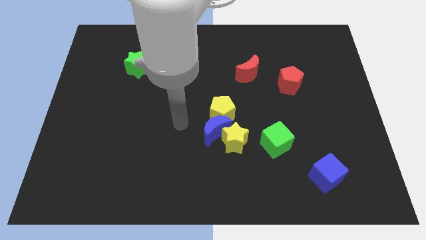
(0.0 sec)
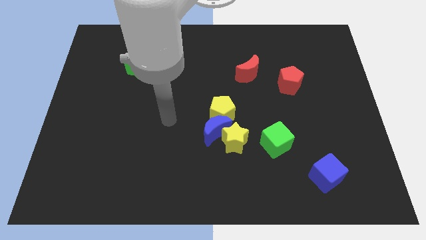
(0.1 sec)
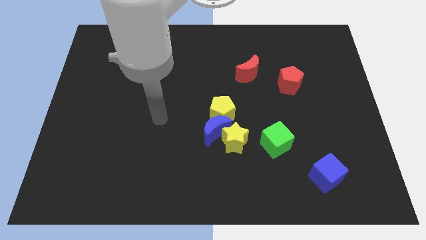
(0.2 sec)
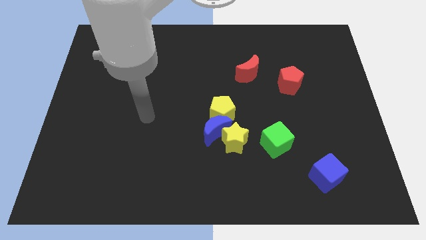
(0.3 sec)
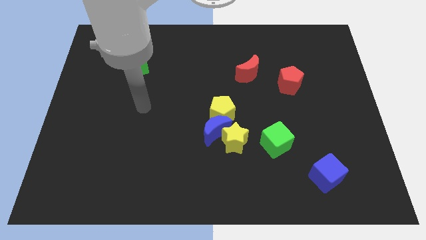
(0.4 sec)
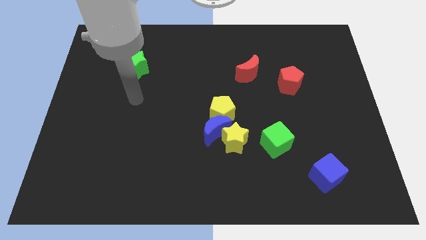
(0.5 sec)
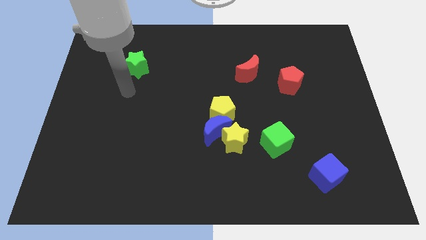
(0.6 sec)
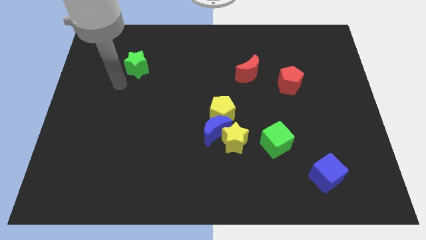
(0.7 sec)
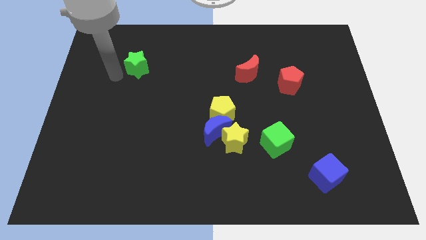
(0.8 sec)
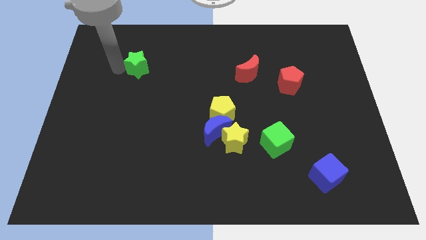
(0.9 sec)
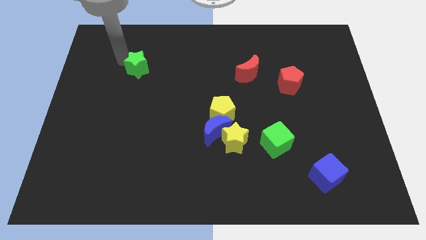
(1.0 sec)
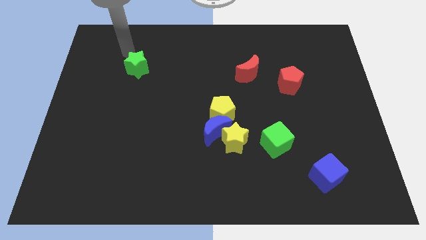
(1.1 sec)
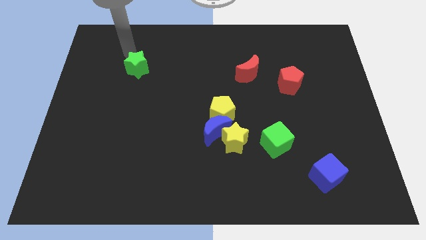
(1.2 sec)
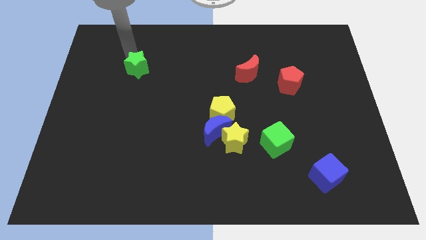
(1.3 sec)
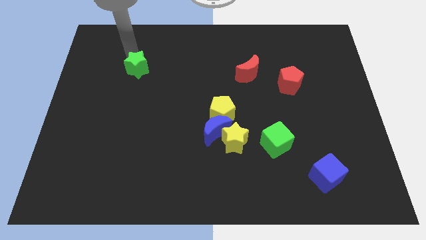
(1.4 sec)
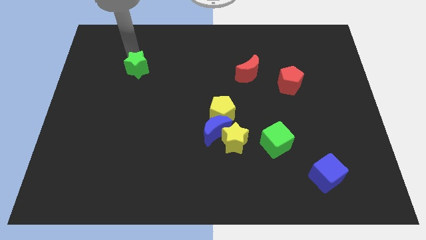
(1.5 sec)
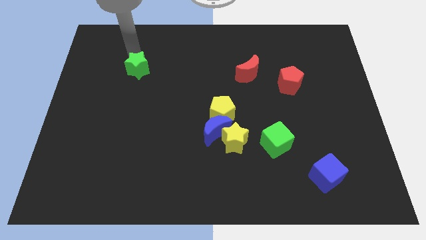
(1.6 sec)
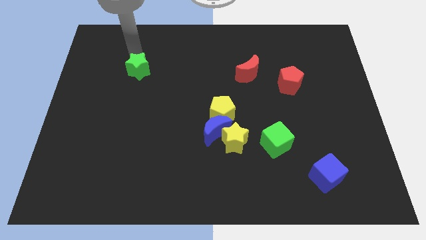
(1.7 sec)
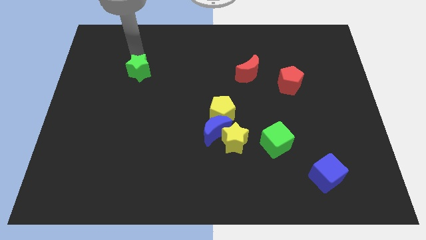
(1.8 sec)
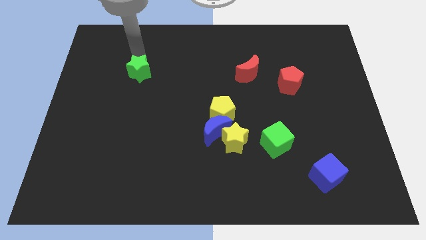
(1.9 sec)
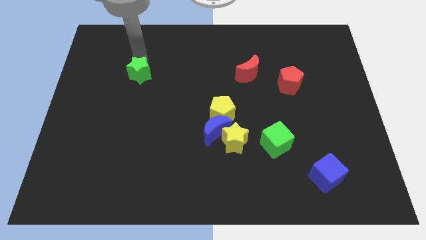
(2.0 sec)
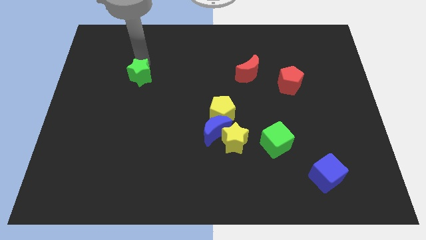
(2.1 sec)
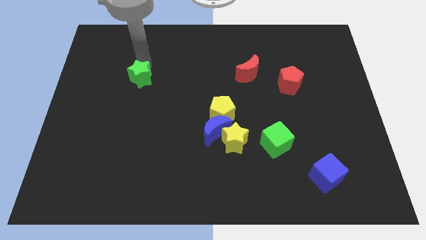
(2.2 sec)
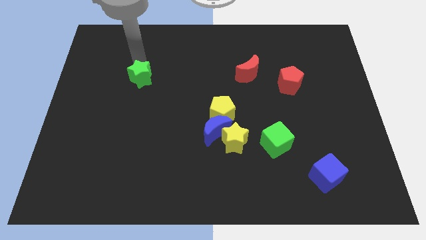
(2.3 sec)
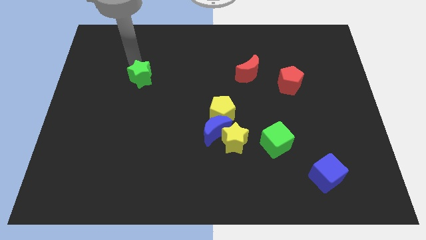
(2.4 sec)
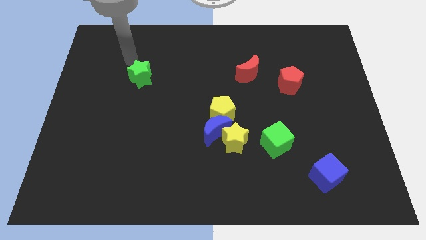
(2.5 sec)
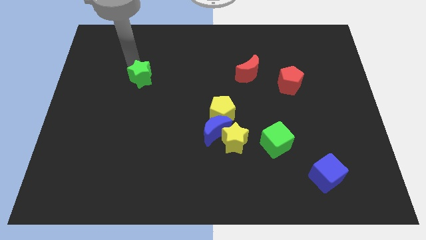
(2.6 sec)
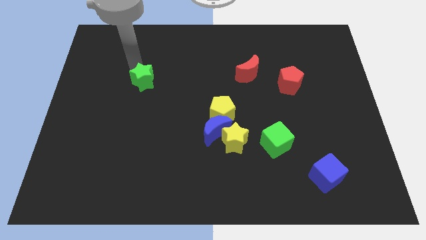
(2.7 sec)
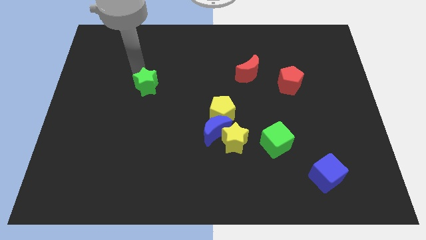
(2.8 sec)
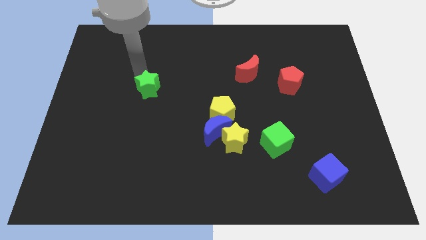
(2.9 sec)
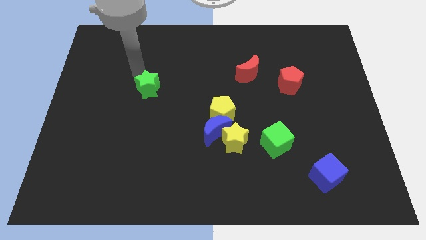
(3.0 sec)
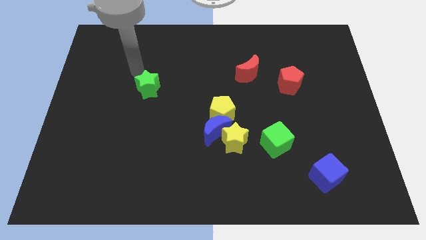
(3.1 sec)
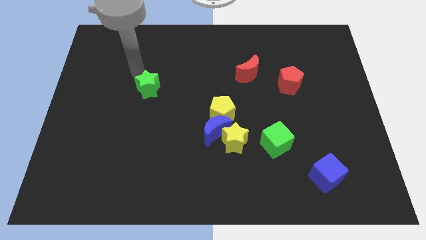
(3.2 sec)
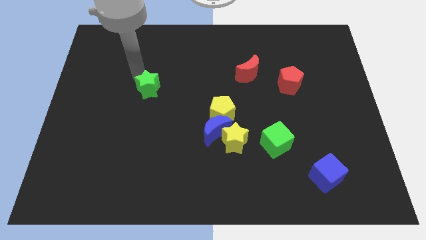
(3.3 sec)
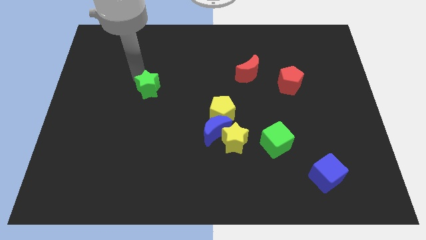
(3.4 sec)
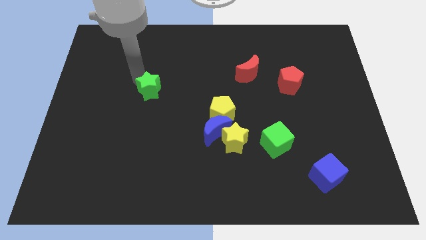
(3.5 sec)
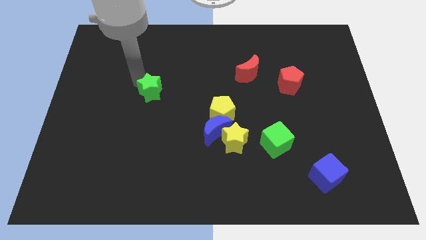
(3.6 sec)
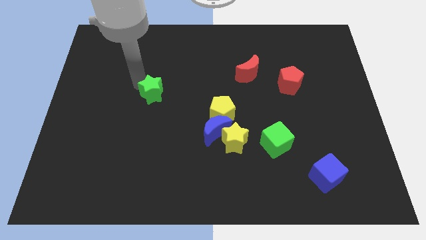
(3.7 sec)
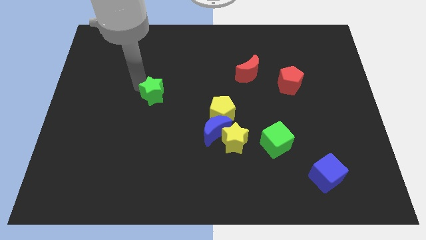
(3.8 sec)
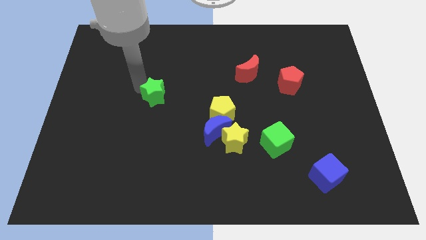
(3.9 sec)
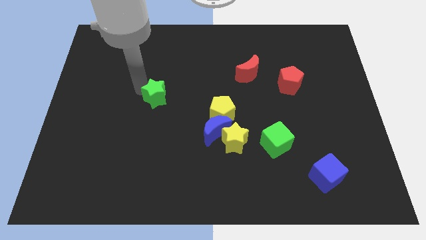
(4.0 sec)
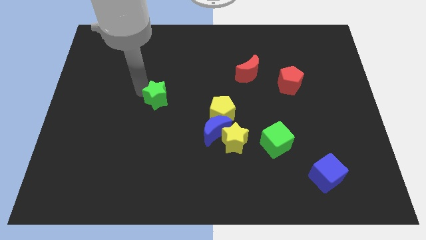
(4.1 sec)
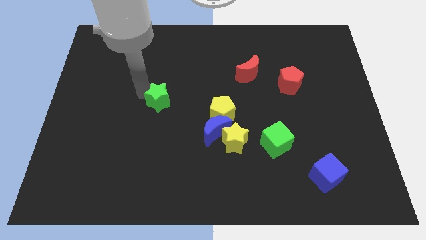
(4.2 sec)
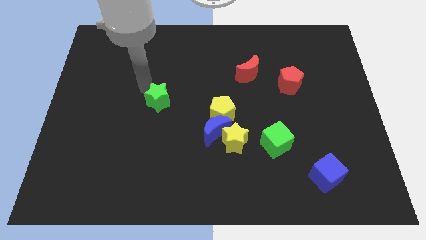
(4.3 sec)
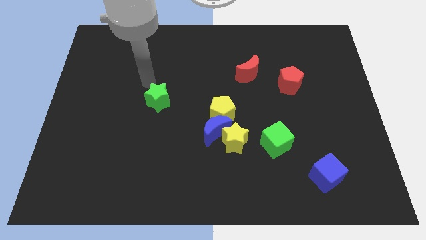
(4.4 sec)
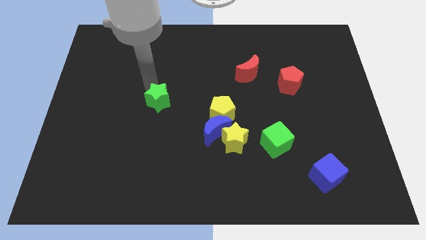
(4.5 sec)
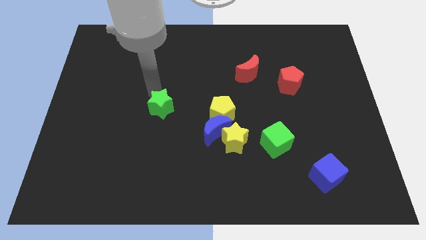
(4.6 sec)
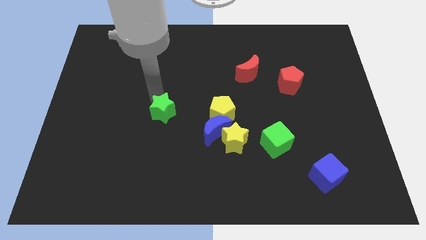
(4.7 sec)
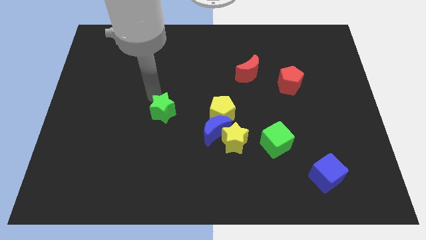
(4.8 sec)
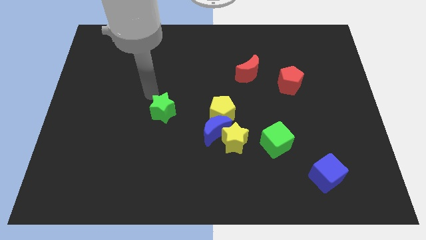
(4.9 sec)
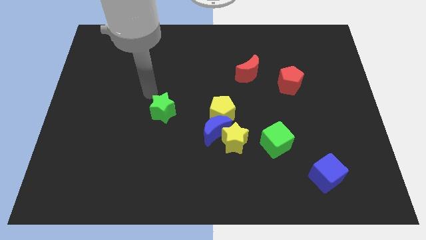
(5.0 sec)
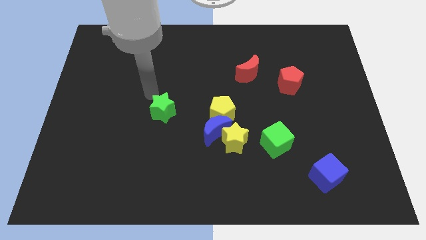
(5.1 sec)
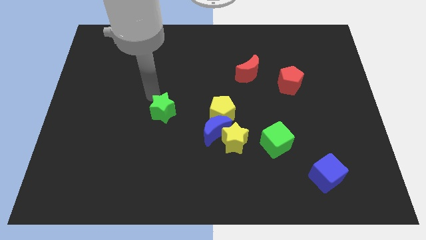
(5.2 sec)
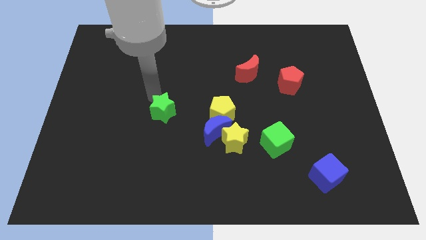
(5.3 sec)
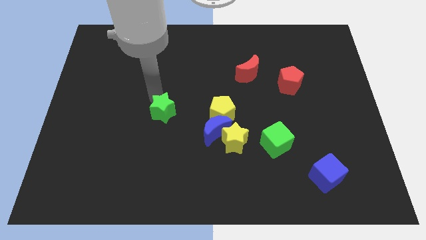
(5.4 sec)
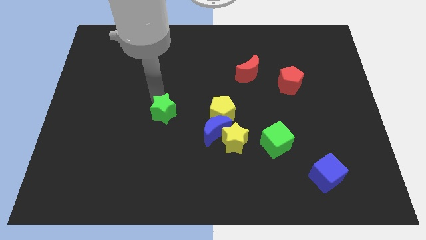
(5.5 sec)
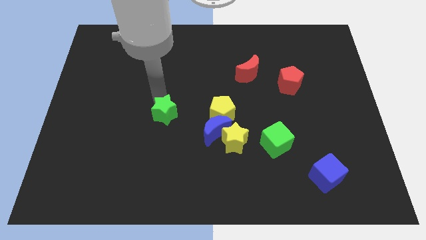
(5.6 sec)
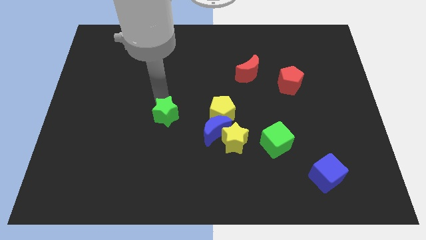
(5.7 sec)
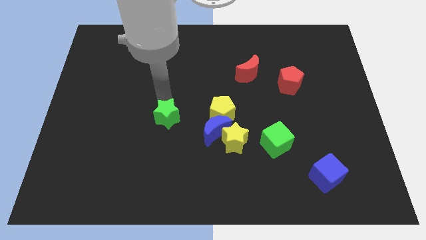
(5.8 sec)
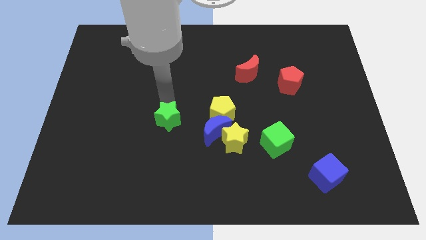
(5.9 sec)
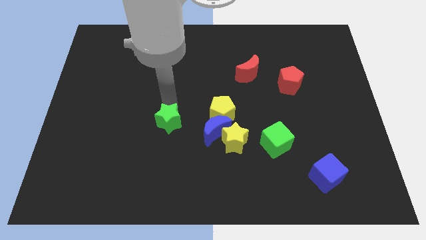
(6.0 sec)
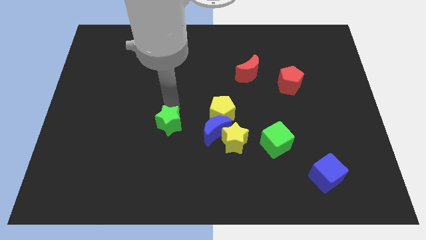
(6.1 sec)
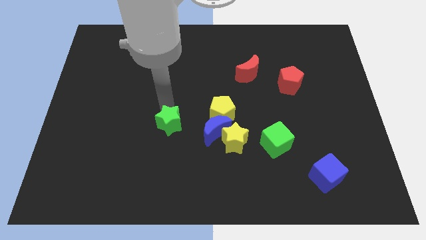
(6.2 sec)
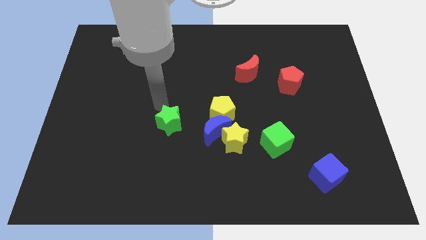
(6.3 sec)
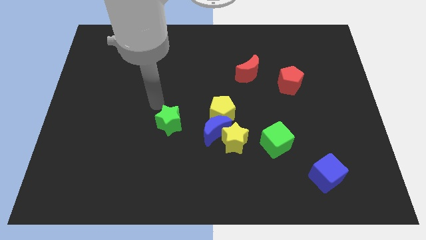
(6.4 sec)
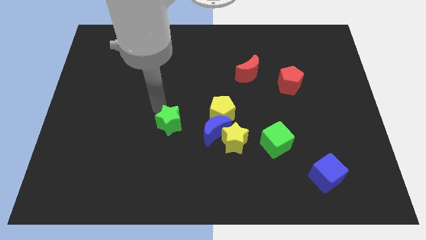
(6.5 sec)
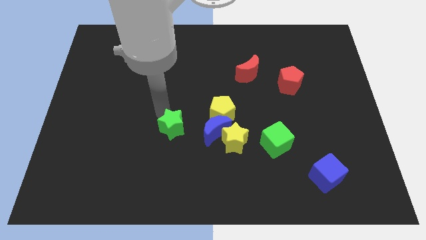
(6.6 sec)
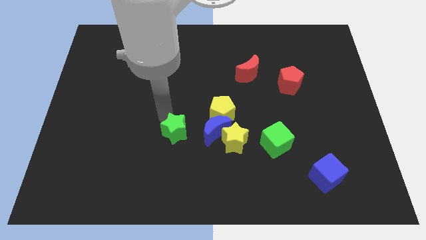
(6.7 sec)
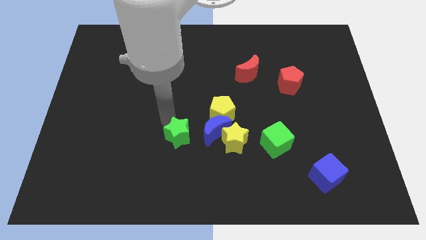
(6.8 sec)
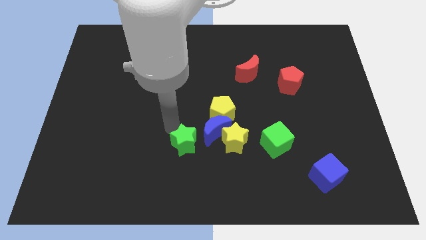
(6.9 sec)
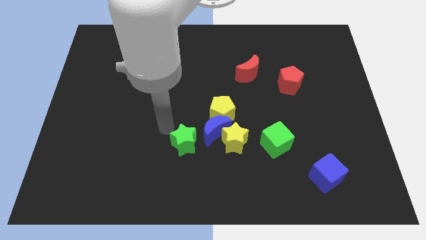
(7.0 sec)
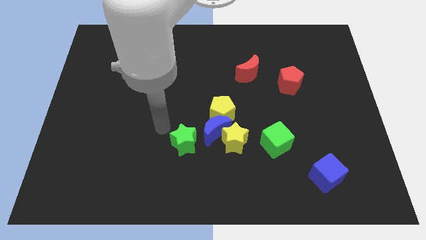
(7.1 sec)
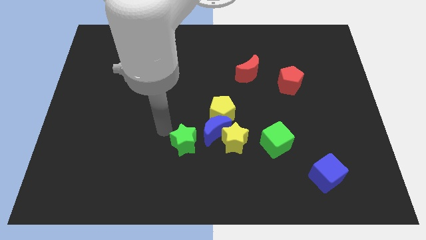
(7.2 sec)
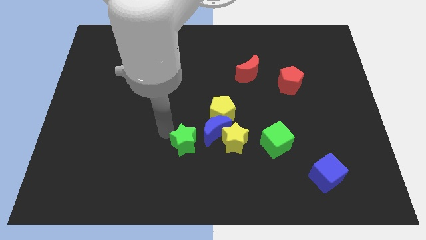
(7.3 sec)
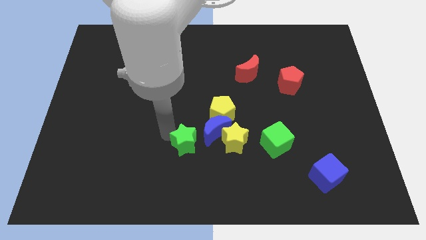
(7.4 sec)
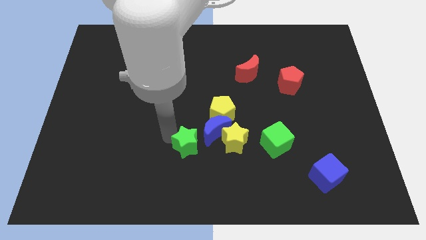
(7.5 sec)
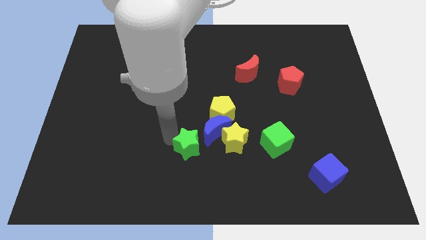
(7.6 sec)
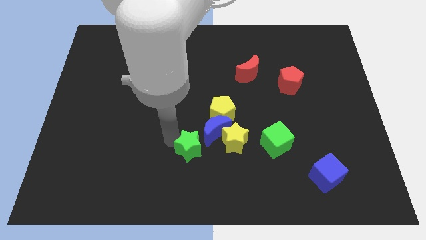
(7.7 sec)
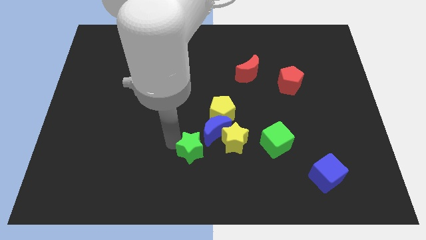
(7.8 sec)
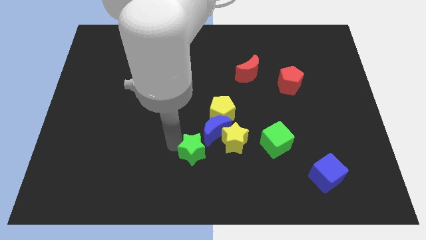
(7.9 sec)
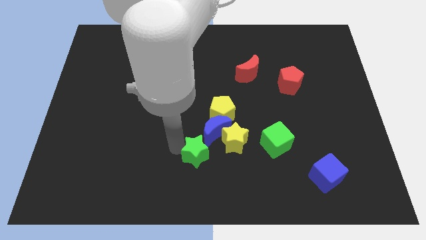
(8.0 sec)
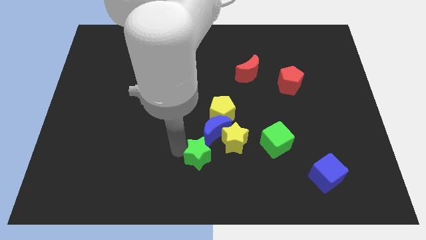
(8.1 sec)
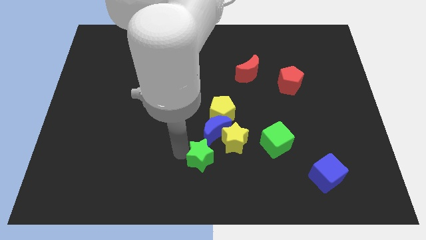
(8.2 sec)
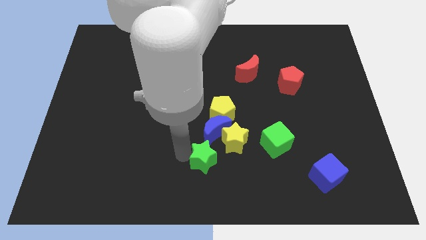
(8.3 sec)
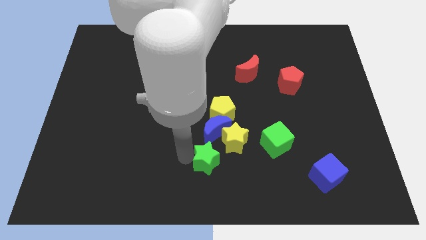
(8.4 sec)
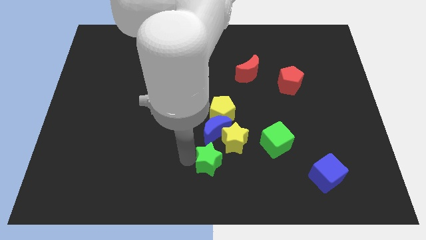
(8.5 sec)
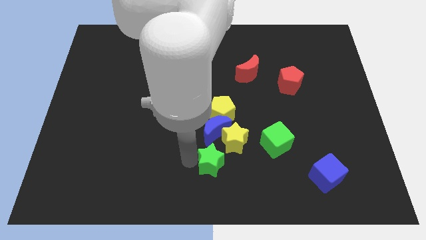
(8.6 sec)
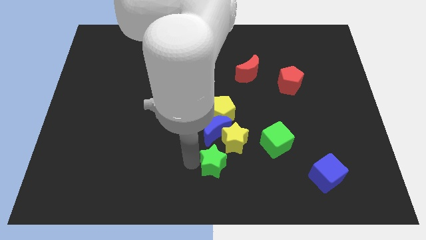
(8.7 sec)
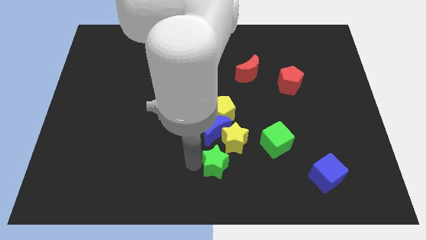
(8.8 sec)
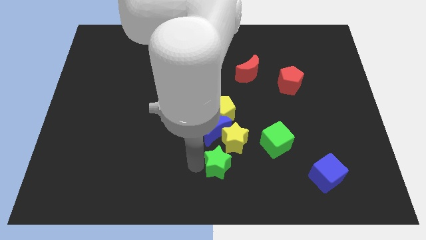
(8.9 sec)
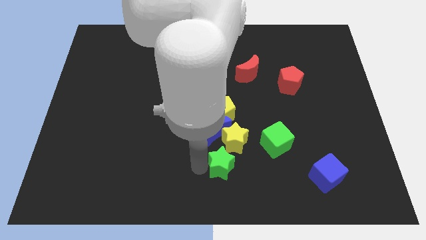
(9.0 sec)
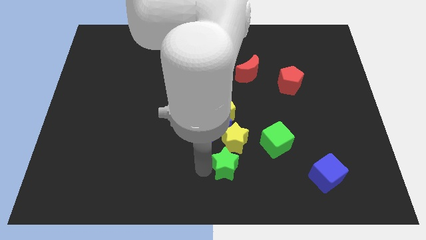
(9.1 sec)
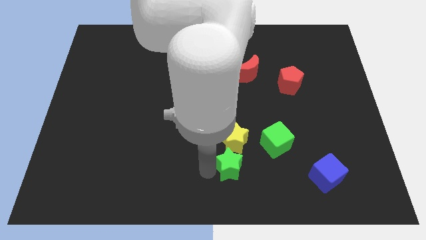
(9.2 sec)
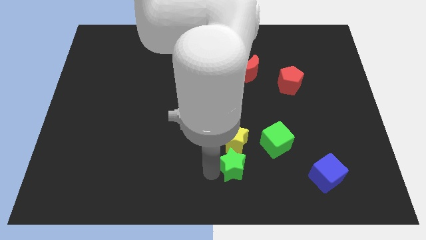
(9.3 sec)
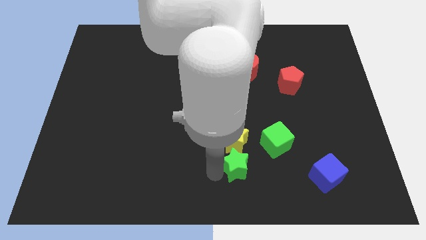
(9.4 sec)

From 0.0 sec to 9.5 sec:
push the green star diagonally down and to the right of the yellow star
